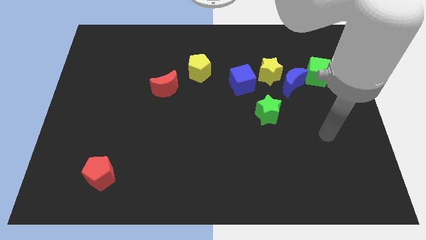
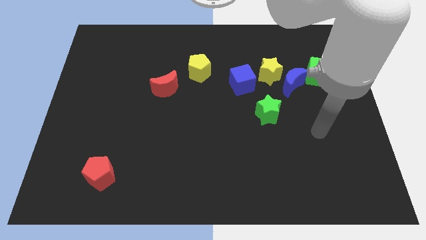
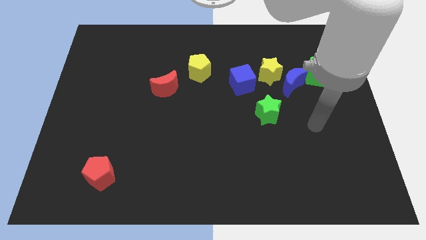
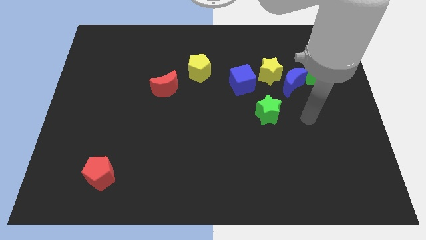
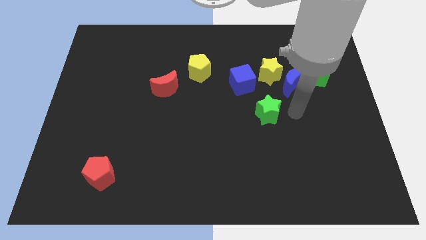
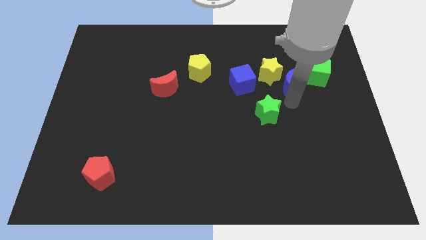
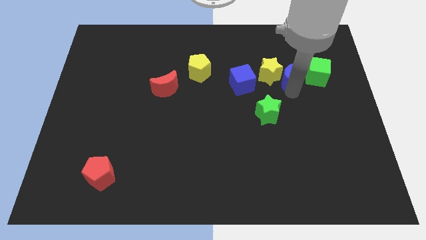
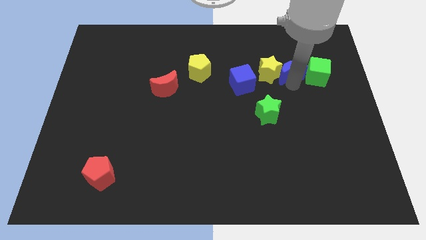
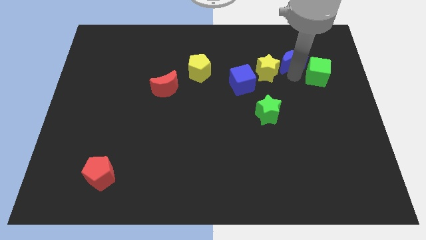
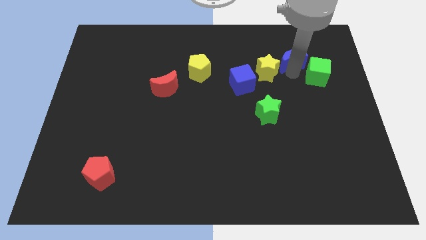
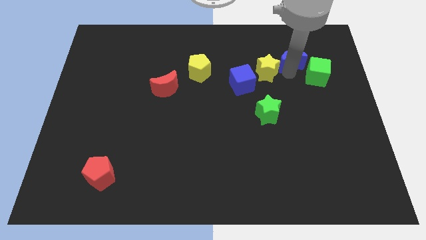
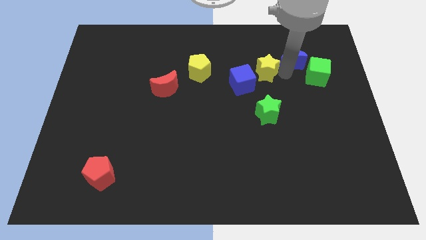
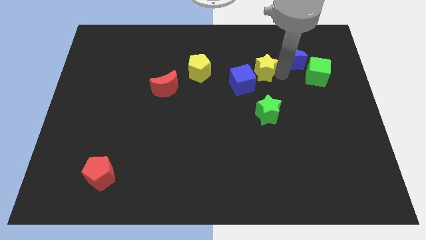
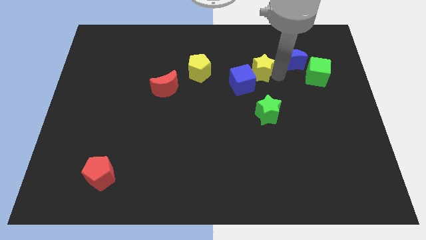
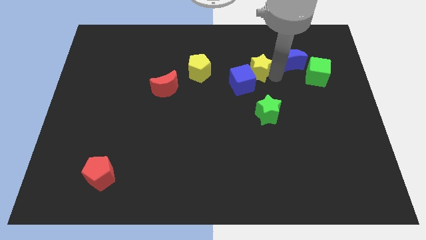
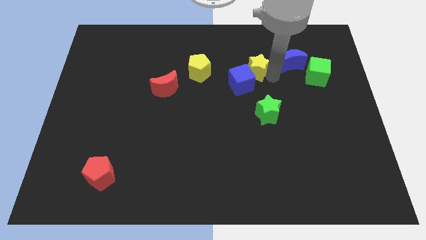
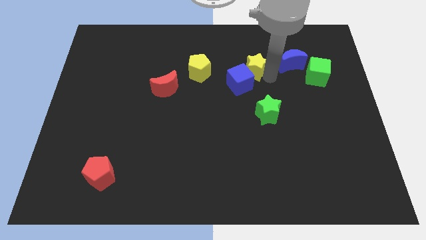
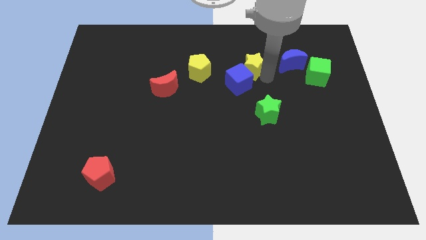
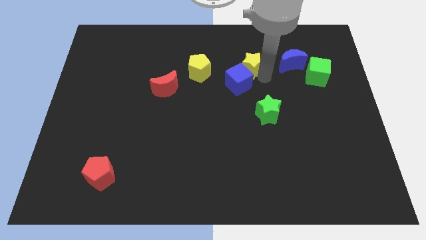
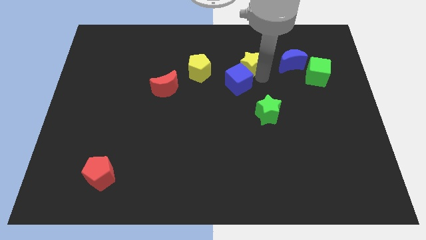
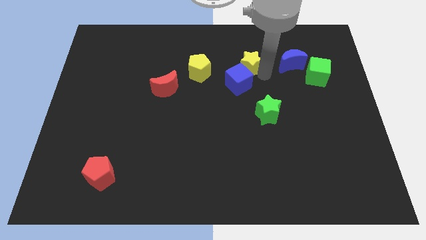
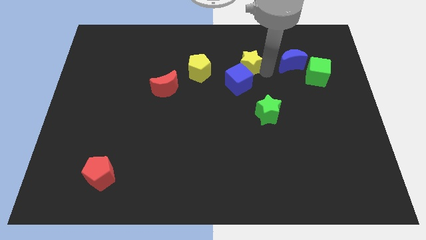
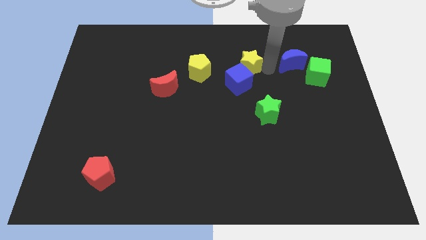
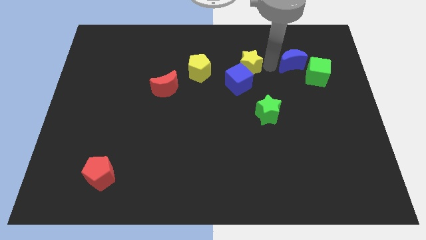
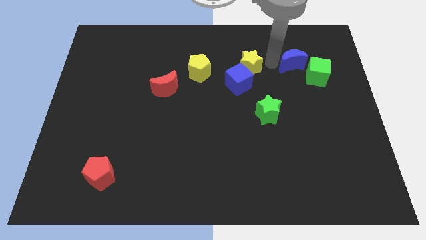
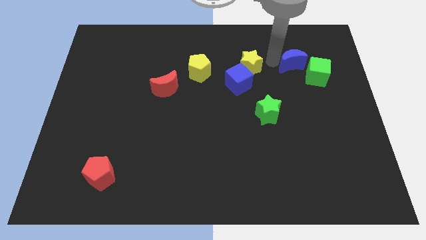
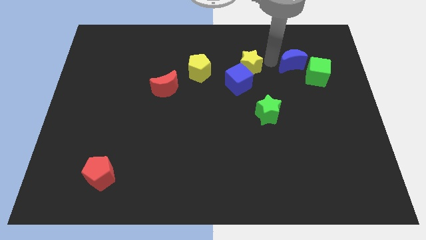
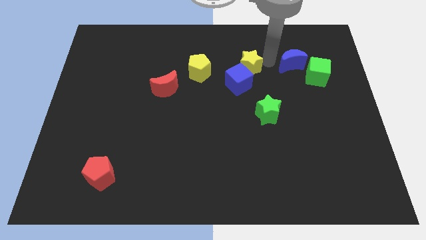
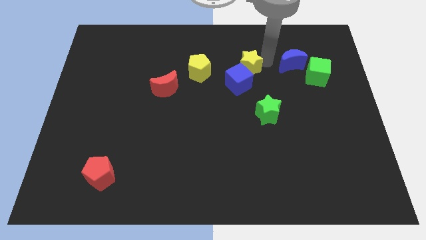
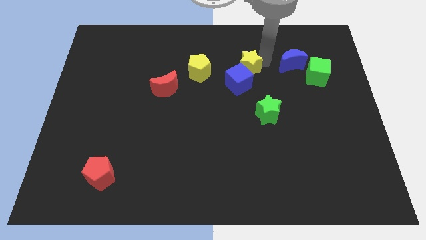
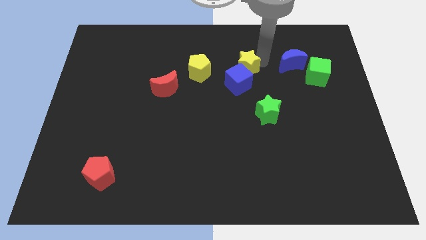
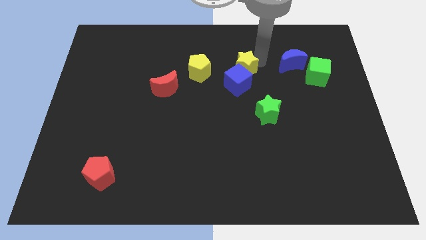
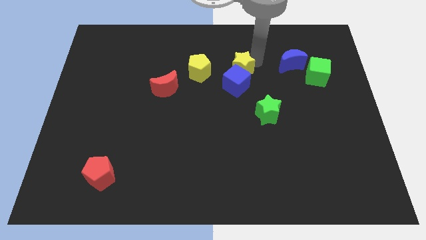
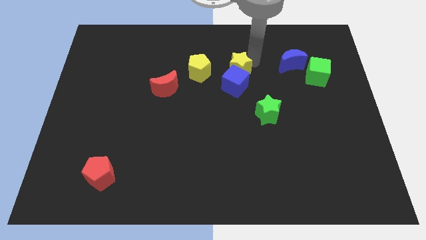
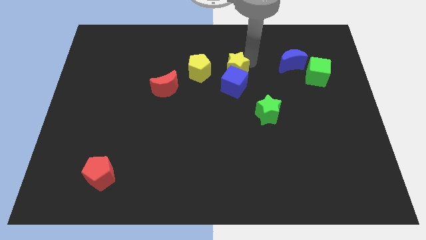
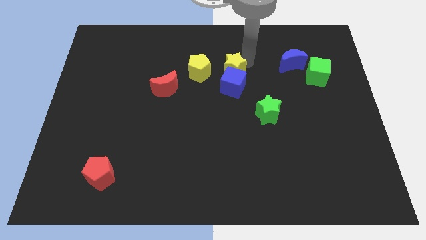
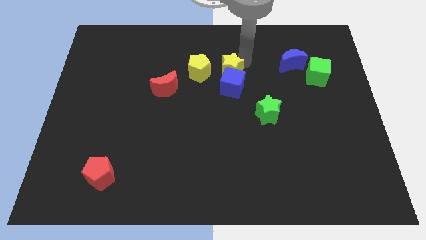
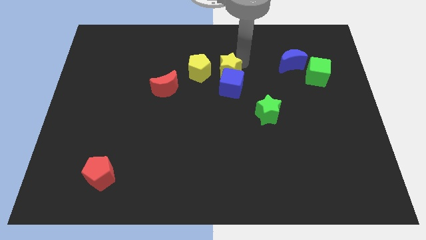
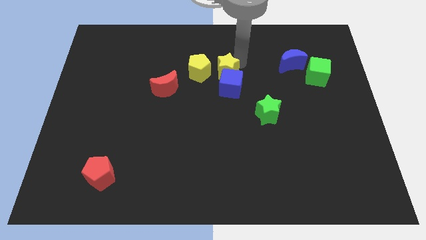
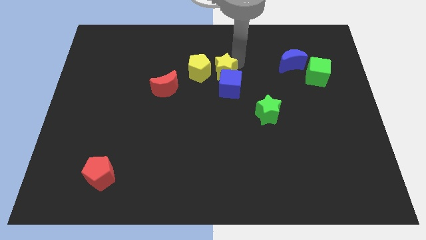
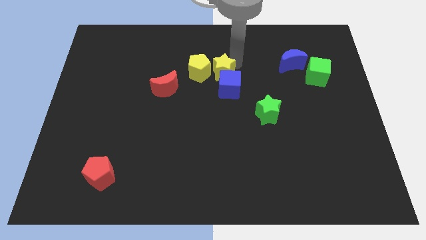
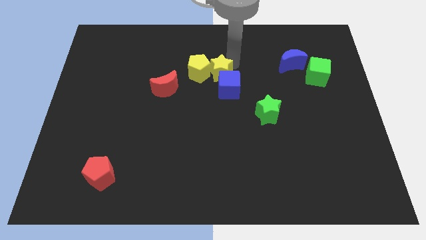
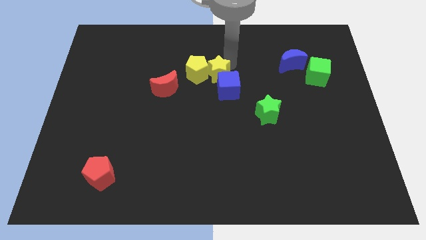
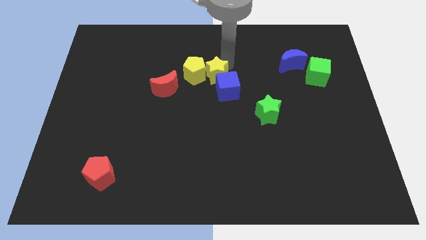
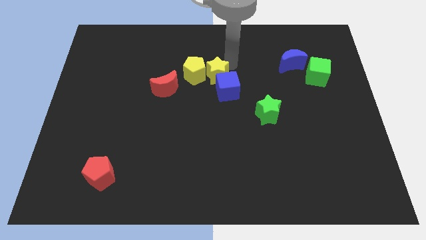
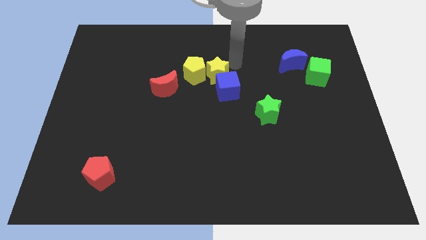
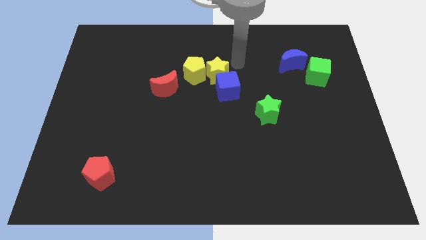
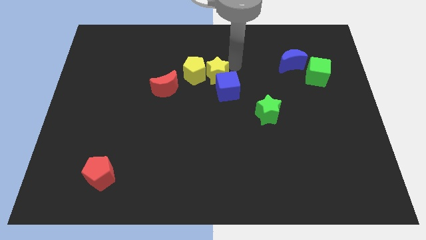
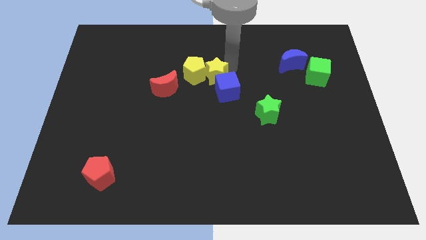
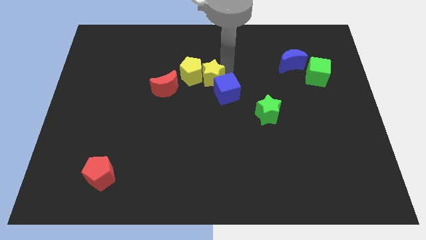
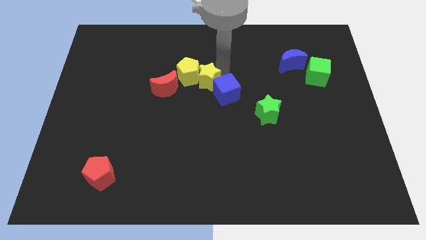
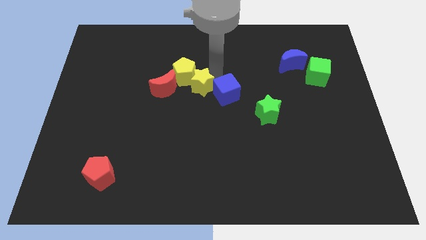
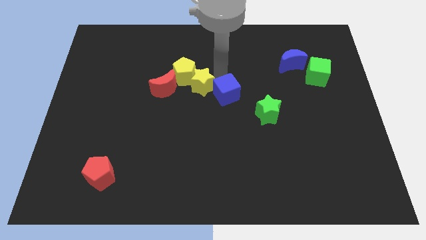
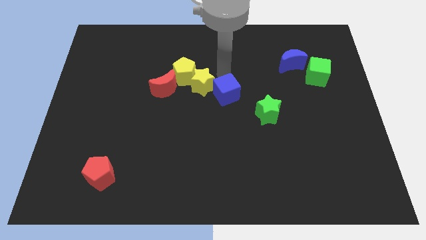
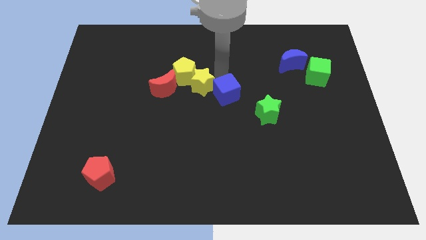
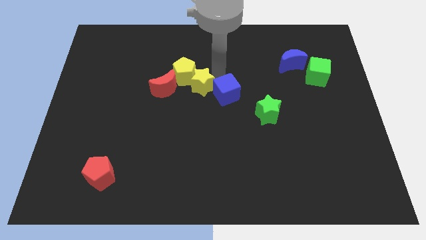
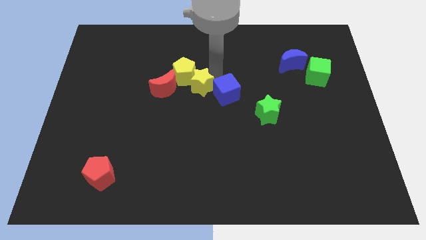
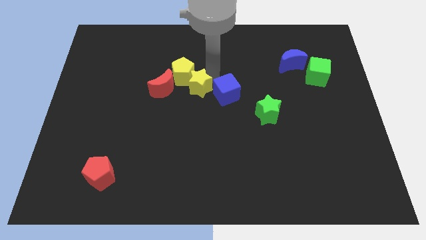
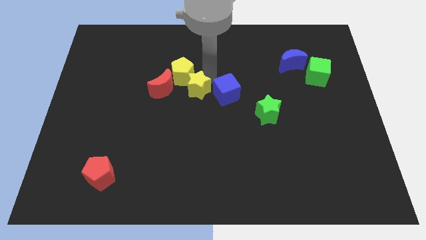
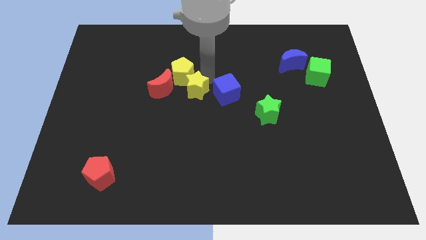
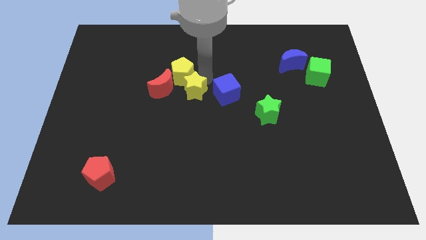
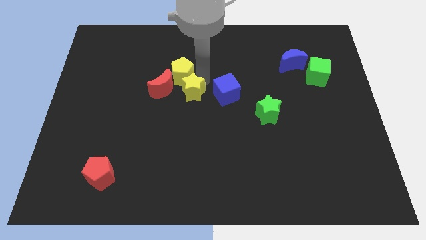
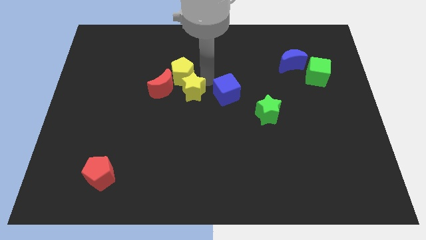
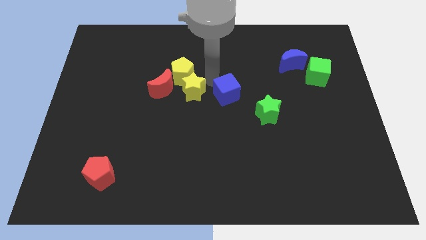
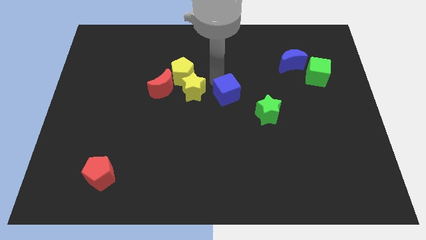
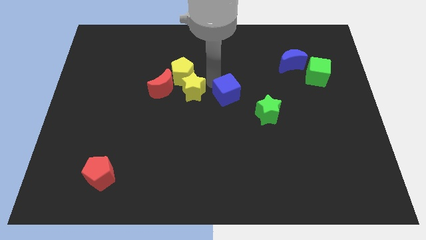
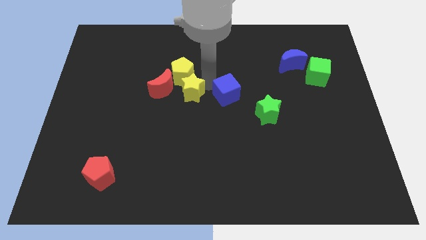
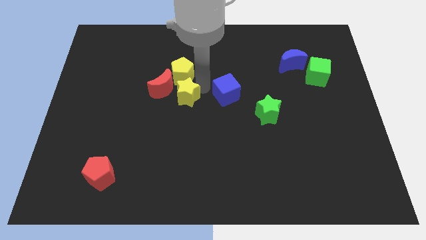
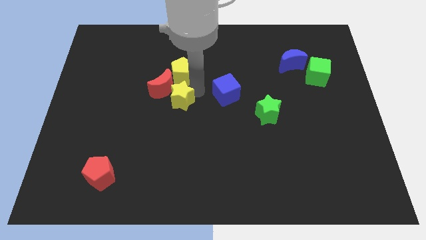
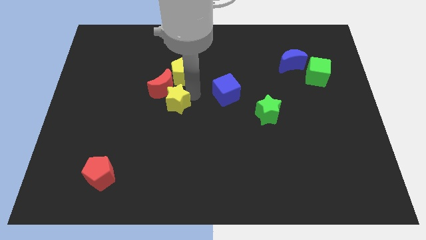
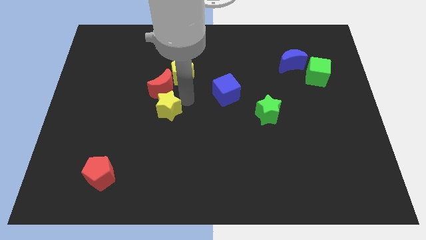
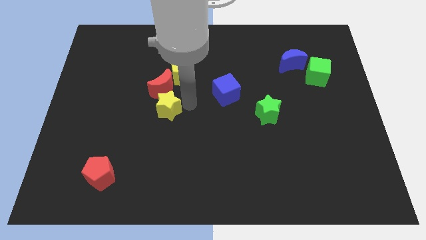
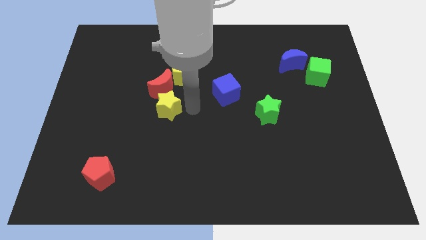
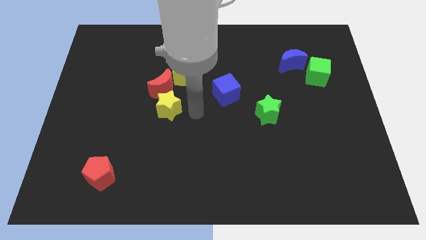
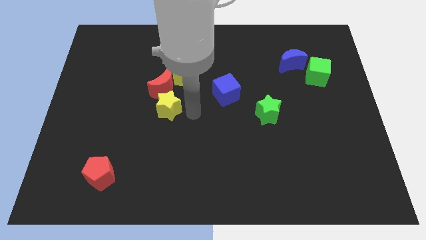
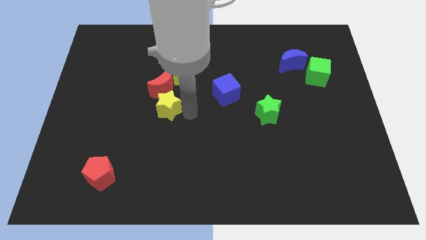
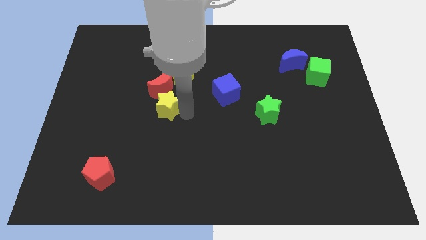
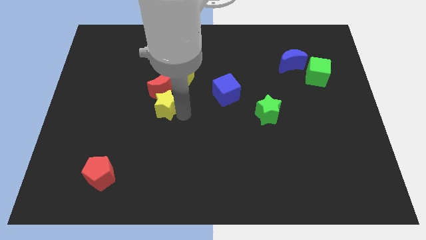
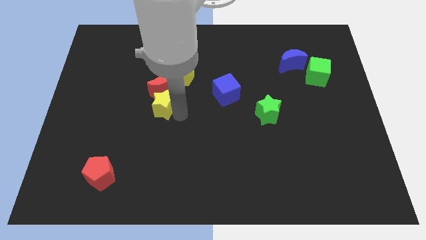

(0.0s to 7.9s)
move the yellow star to the bottom left side of the red moon
